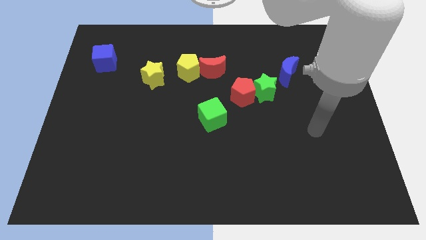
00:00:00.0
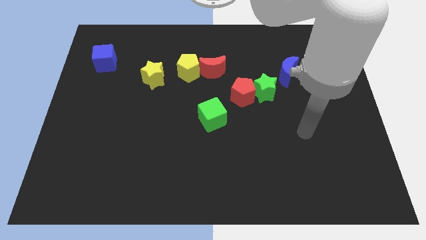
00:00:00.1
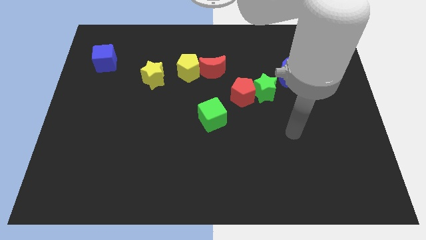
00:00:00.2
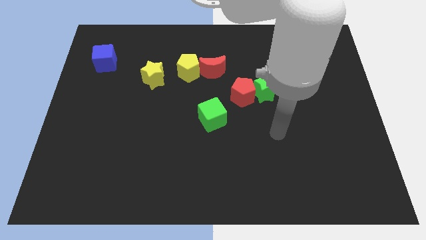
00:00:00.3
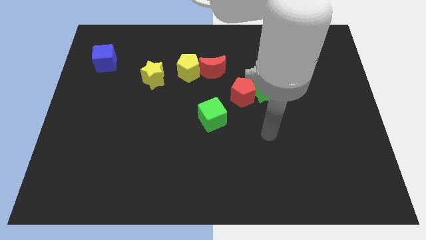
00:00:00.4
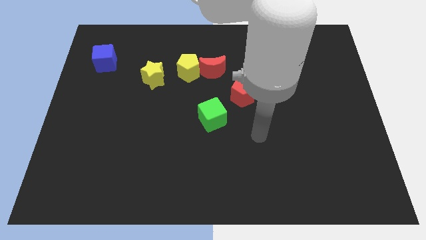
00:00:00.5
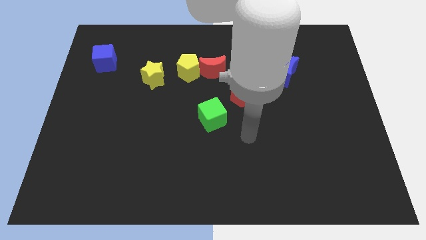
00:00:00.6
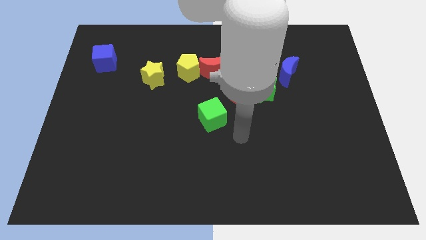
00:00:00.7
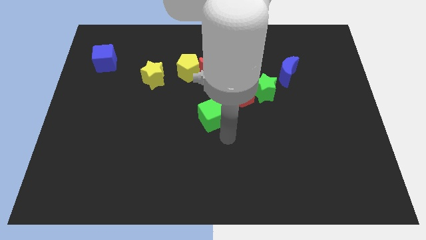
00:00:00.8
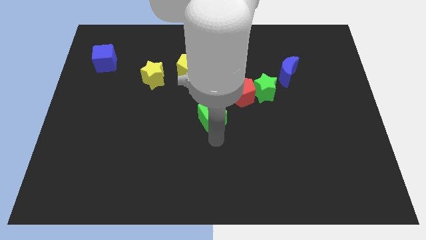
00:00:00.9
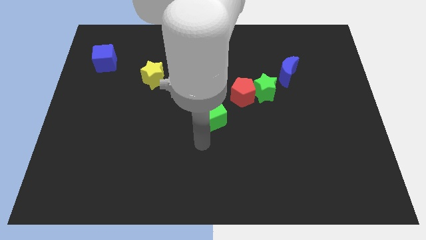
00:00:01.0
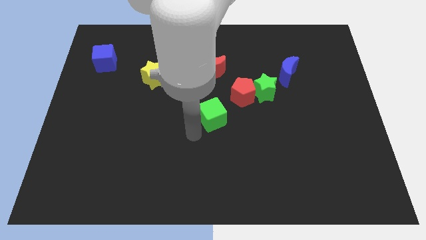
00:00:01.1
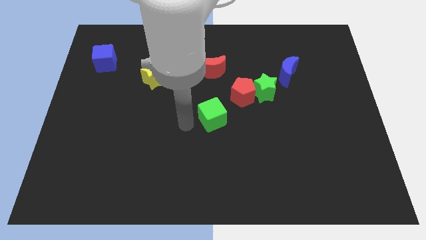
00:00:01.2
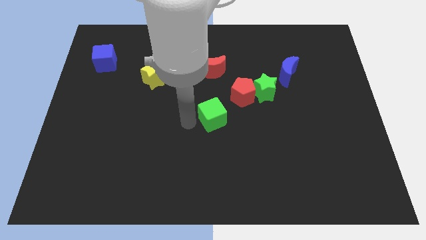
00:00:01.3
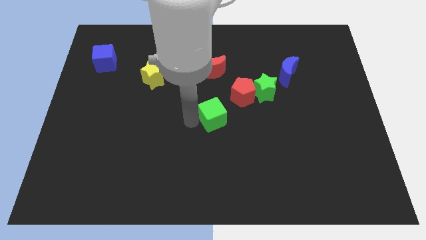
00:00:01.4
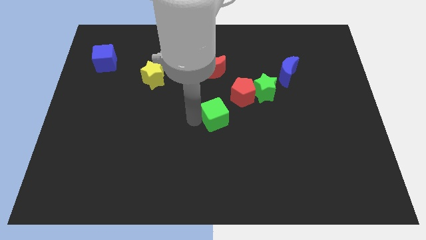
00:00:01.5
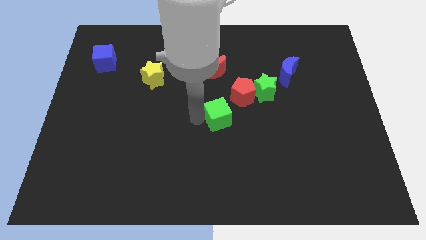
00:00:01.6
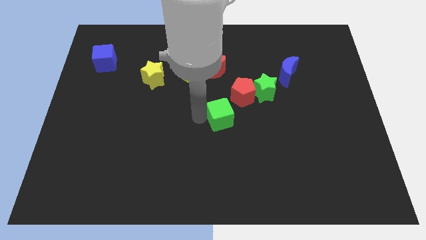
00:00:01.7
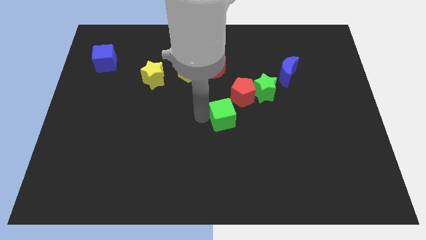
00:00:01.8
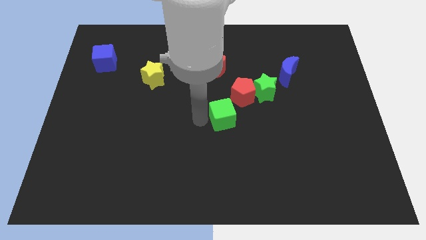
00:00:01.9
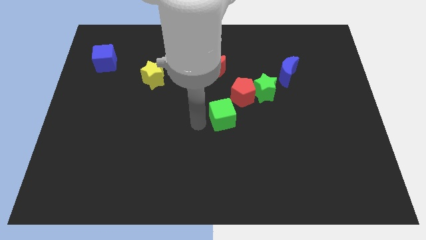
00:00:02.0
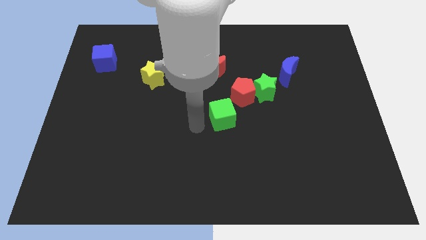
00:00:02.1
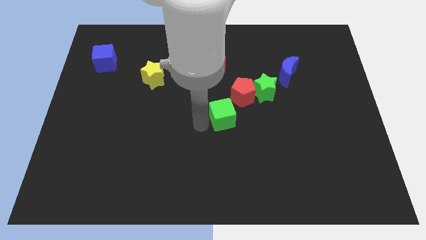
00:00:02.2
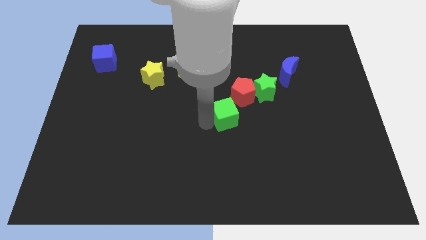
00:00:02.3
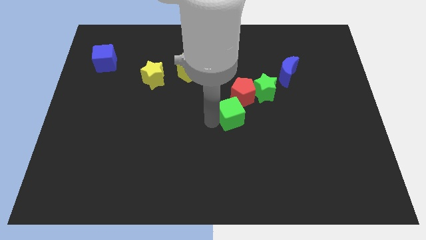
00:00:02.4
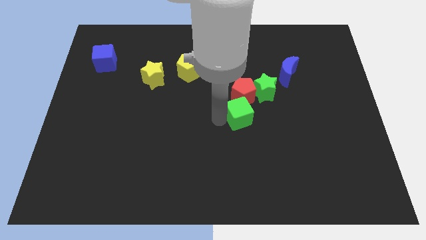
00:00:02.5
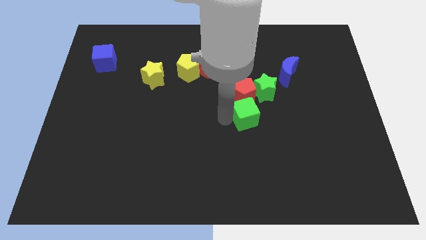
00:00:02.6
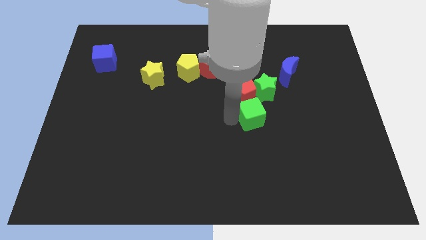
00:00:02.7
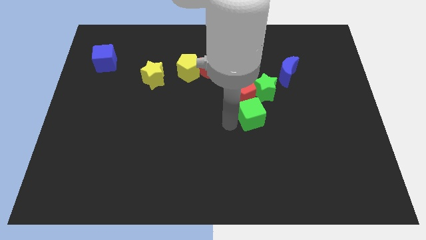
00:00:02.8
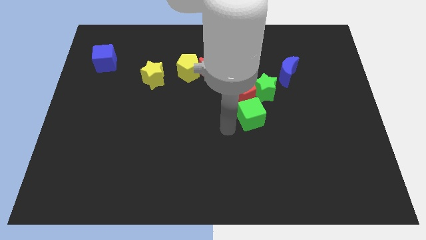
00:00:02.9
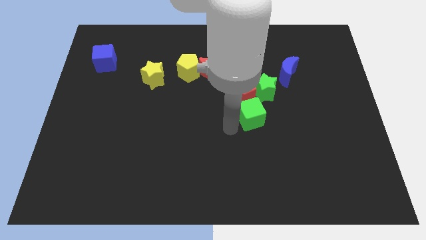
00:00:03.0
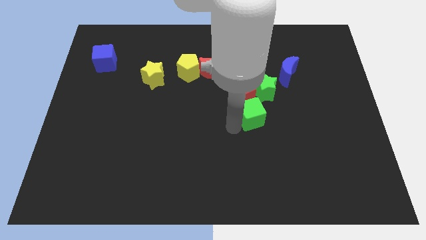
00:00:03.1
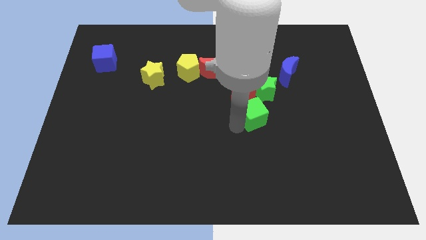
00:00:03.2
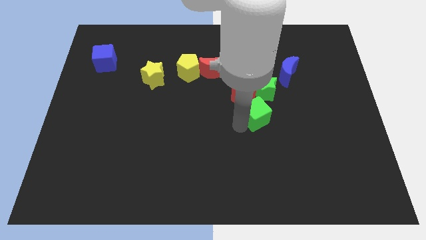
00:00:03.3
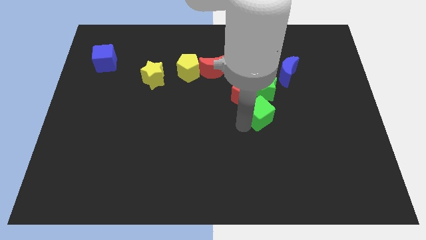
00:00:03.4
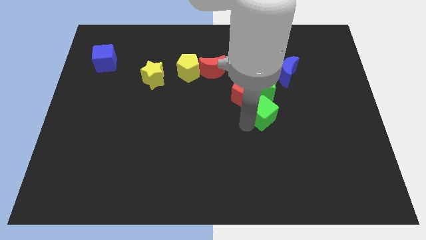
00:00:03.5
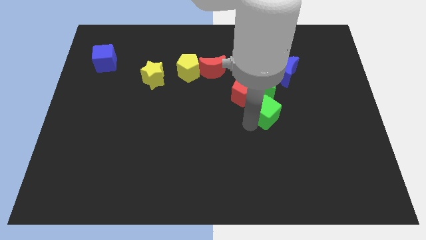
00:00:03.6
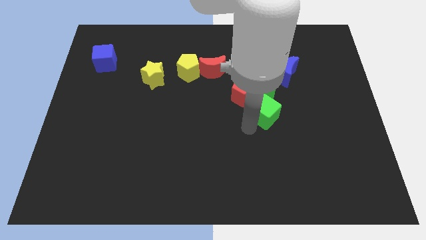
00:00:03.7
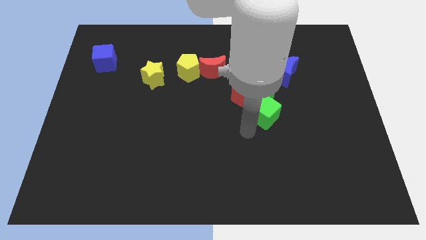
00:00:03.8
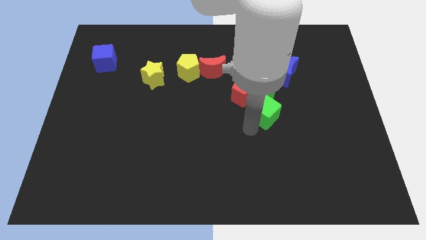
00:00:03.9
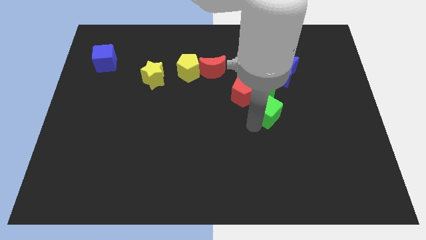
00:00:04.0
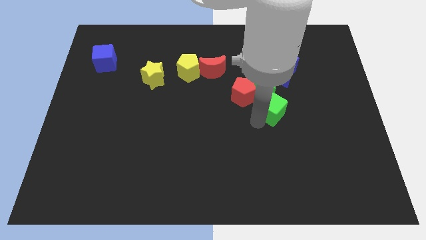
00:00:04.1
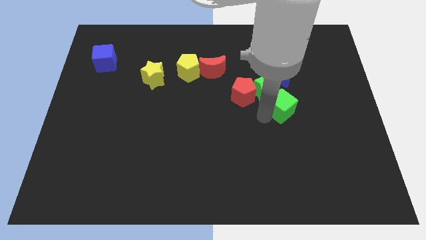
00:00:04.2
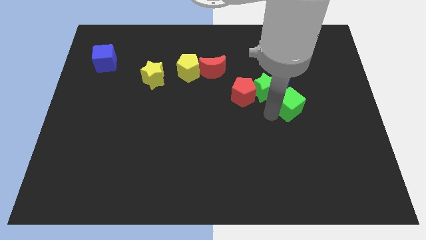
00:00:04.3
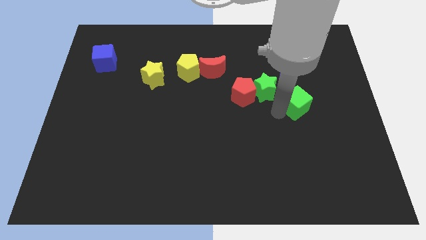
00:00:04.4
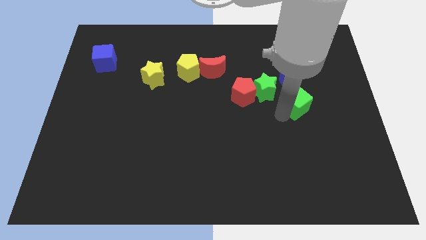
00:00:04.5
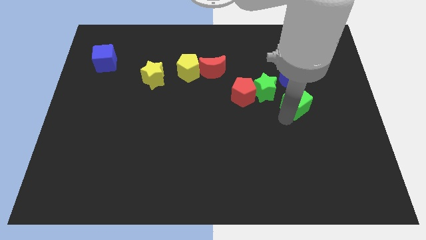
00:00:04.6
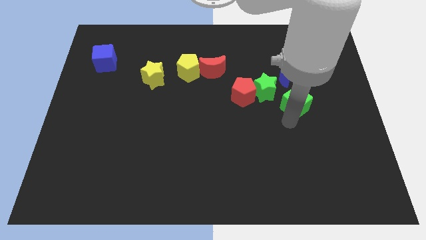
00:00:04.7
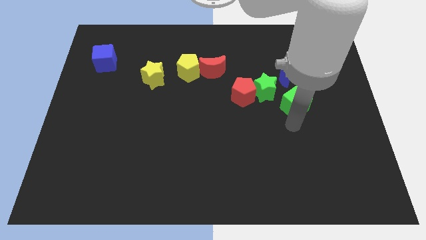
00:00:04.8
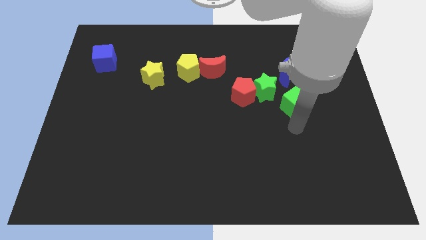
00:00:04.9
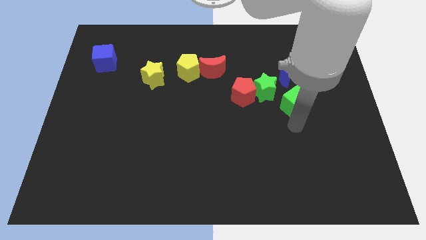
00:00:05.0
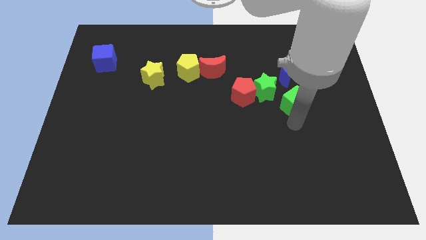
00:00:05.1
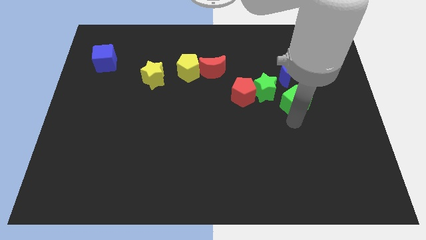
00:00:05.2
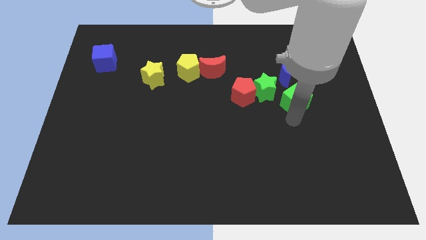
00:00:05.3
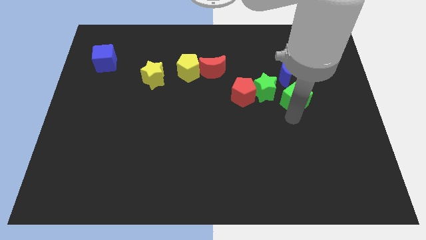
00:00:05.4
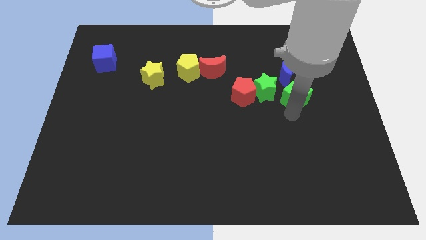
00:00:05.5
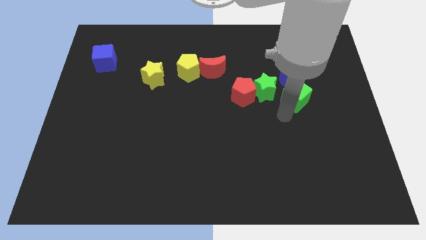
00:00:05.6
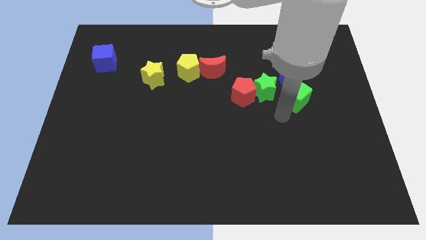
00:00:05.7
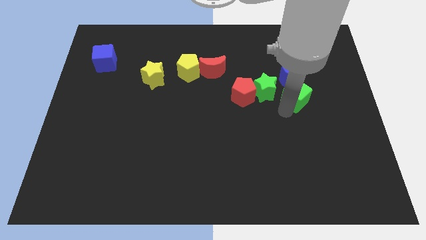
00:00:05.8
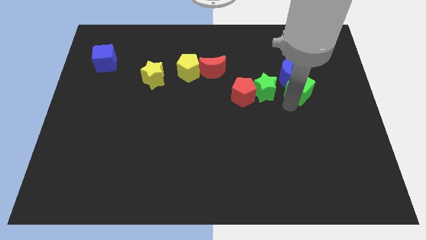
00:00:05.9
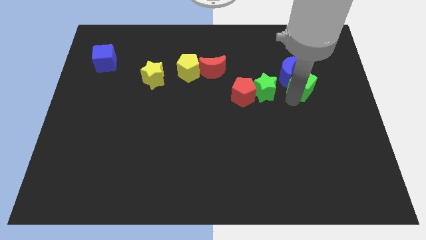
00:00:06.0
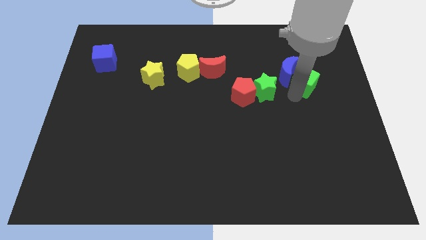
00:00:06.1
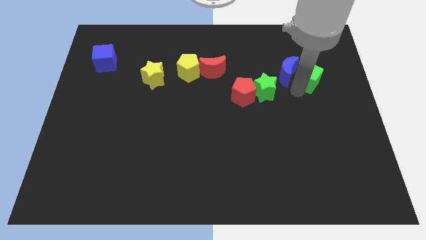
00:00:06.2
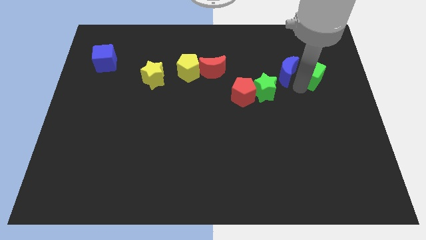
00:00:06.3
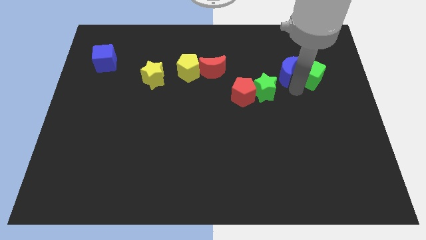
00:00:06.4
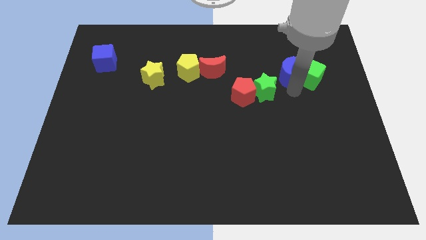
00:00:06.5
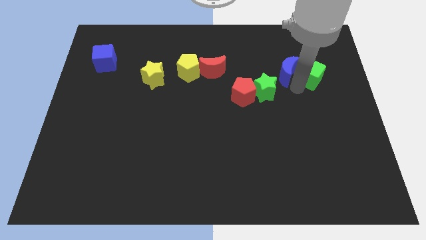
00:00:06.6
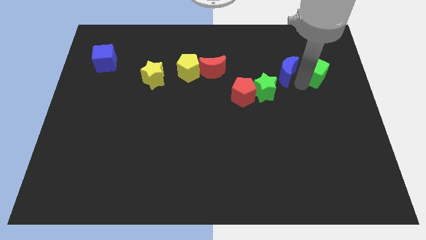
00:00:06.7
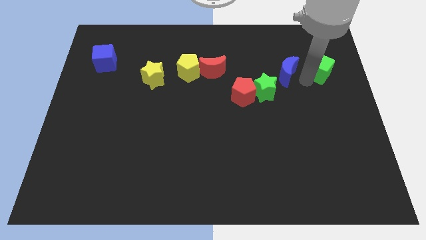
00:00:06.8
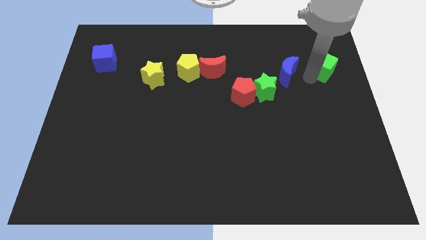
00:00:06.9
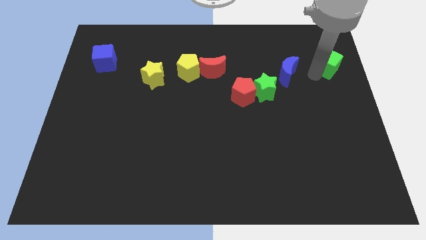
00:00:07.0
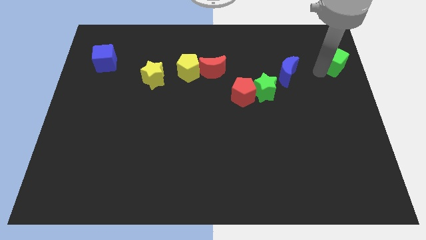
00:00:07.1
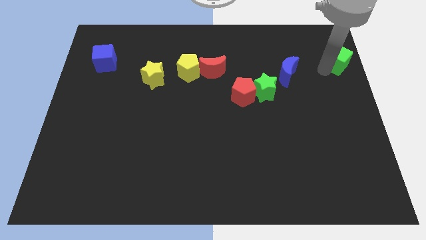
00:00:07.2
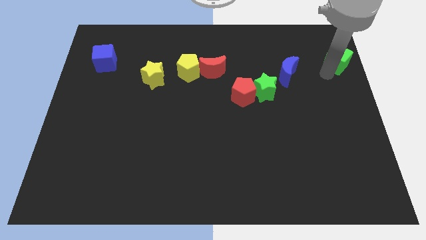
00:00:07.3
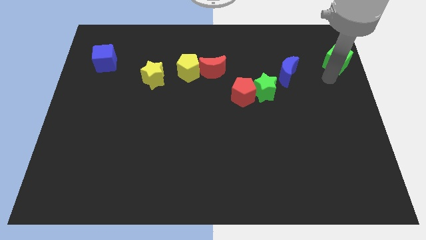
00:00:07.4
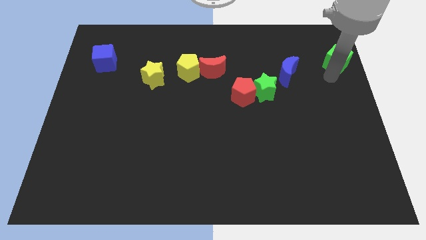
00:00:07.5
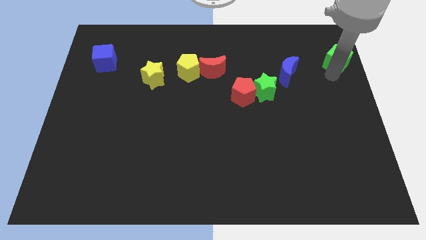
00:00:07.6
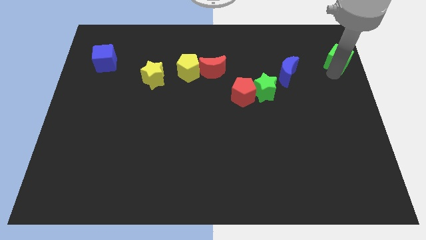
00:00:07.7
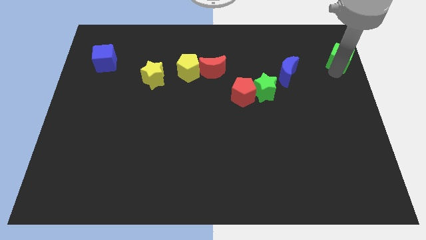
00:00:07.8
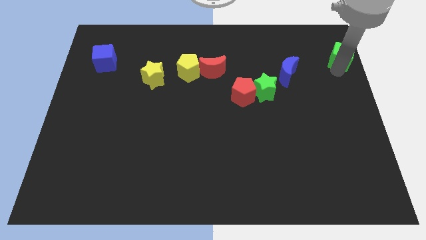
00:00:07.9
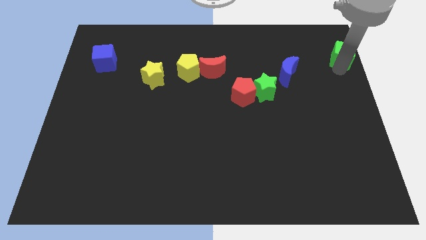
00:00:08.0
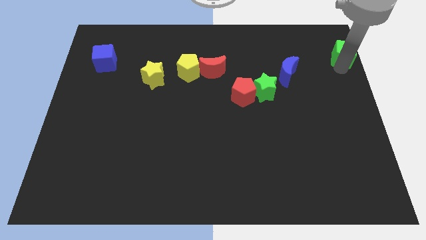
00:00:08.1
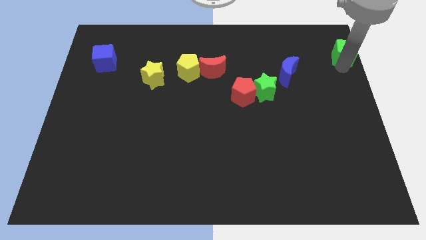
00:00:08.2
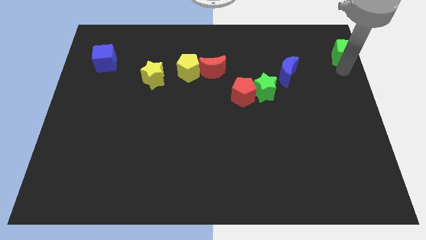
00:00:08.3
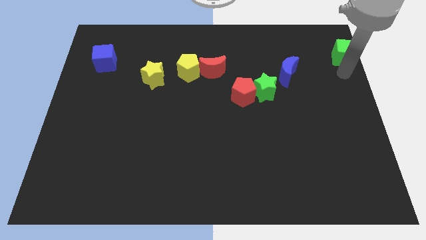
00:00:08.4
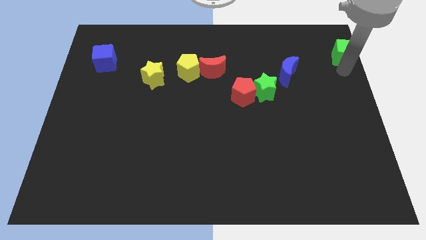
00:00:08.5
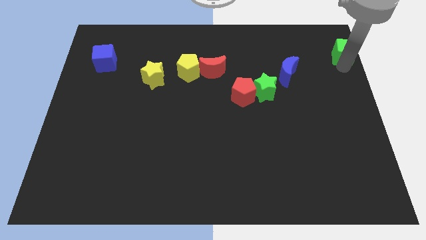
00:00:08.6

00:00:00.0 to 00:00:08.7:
slide the green cube to the top right of the board
